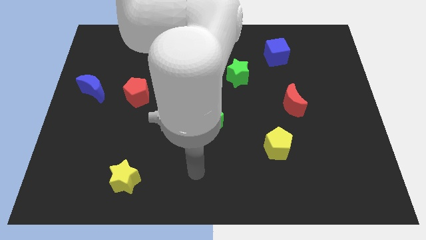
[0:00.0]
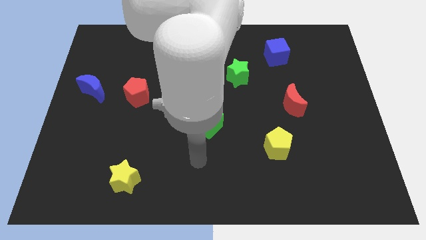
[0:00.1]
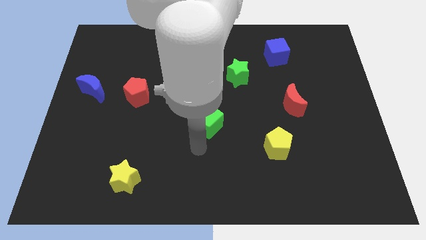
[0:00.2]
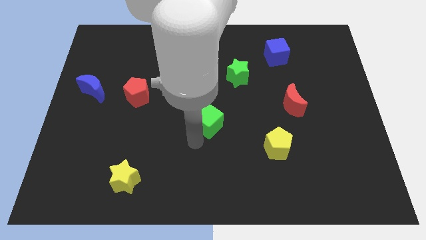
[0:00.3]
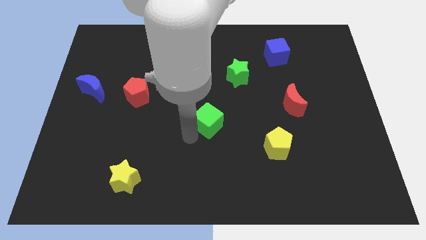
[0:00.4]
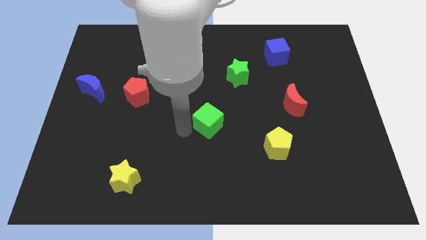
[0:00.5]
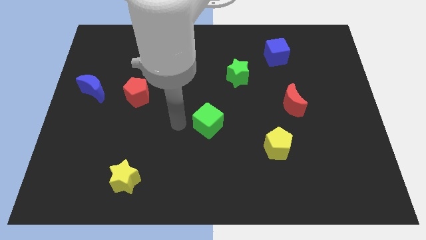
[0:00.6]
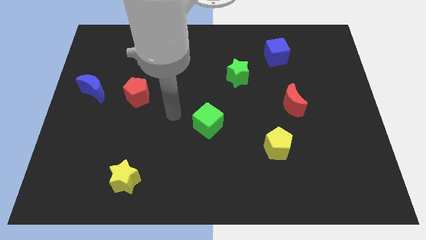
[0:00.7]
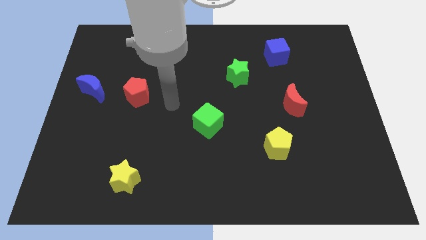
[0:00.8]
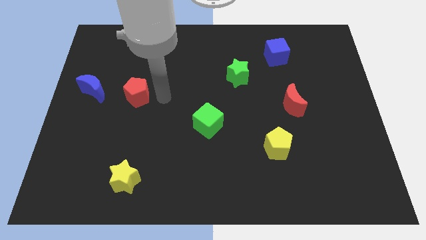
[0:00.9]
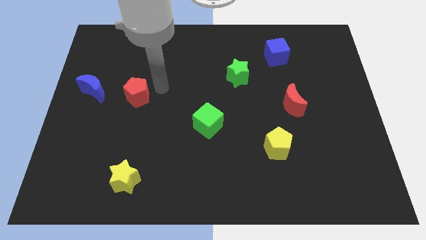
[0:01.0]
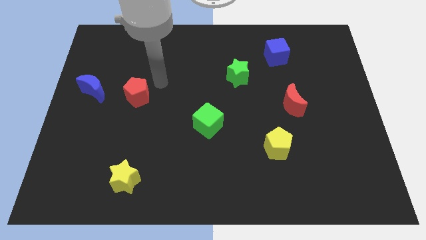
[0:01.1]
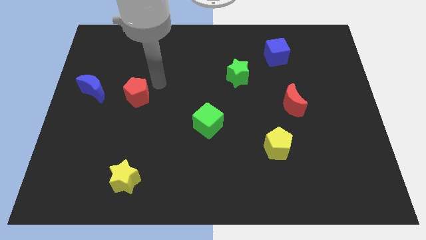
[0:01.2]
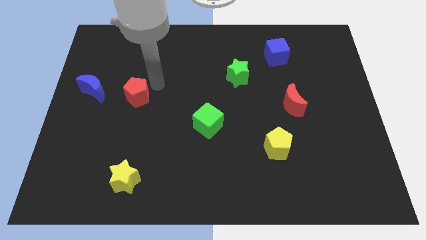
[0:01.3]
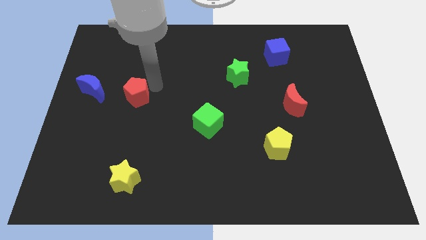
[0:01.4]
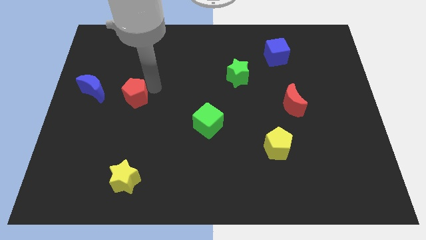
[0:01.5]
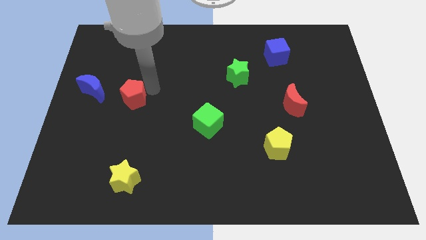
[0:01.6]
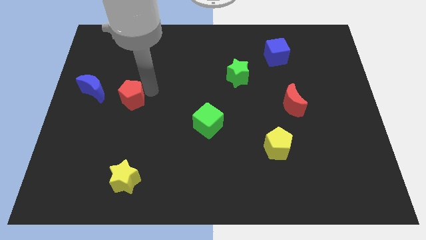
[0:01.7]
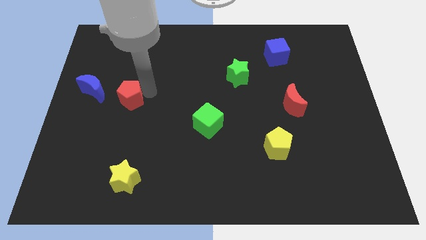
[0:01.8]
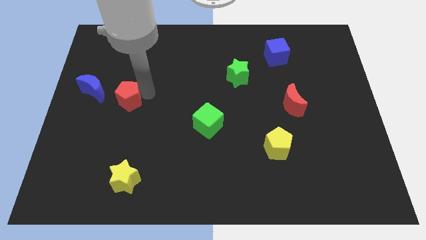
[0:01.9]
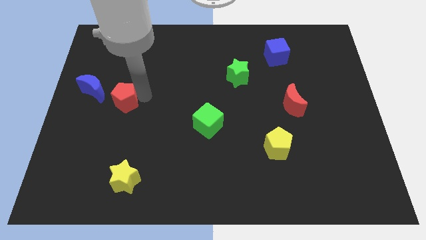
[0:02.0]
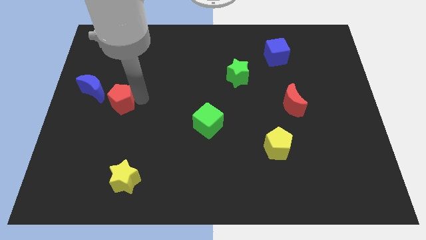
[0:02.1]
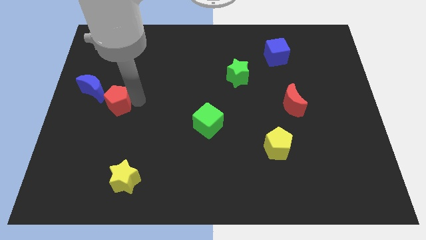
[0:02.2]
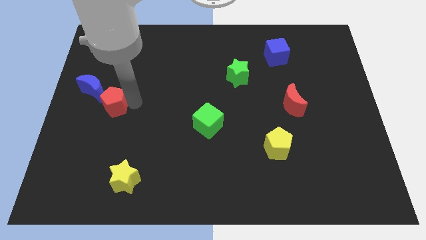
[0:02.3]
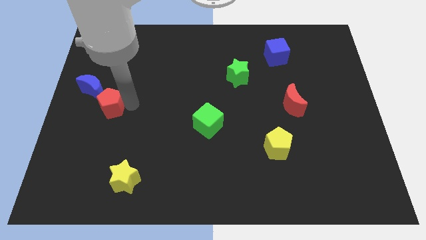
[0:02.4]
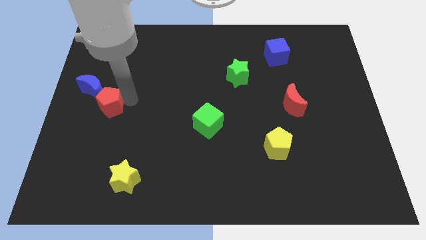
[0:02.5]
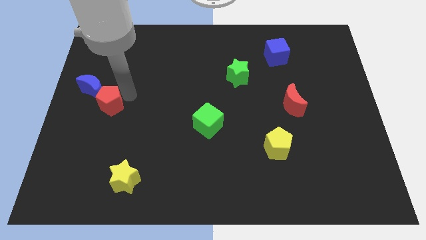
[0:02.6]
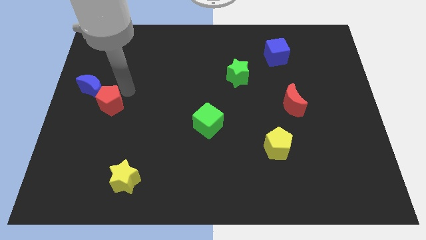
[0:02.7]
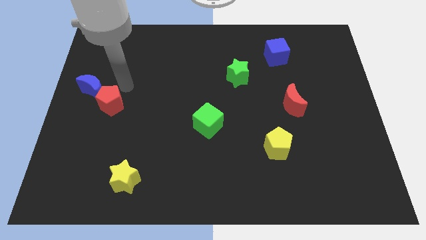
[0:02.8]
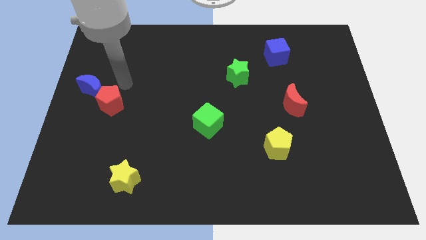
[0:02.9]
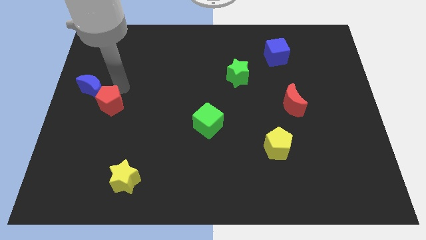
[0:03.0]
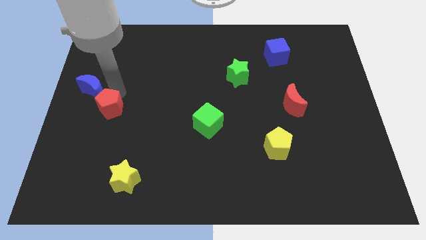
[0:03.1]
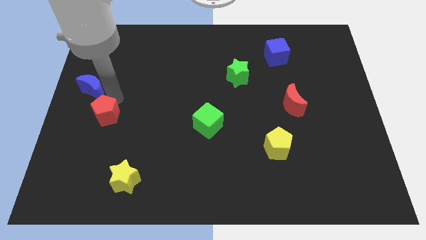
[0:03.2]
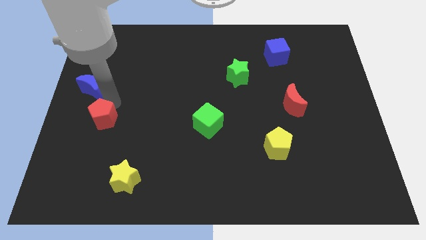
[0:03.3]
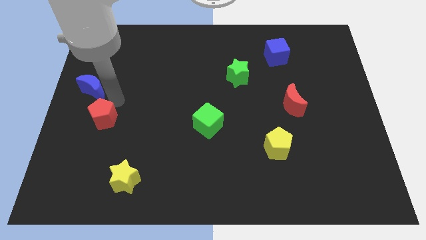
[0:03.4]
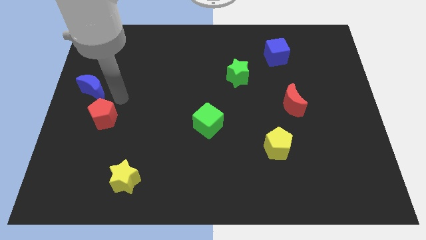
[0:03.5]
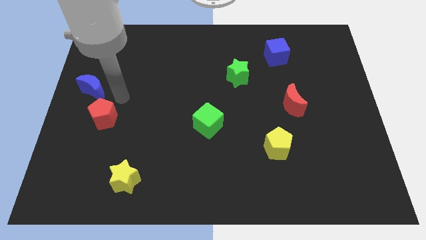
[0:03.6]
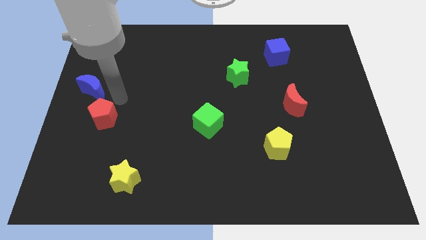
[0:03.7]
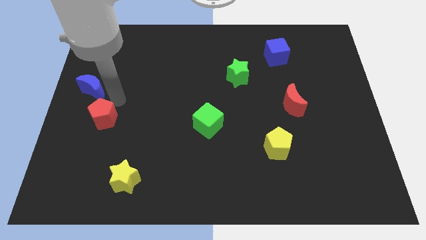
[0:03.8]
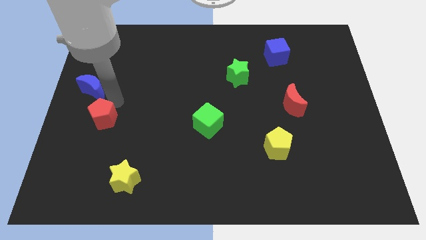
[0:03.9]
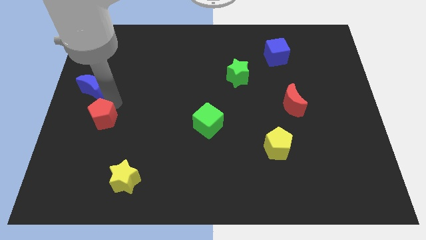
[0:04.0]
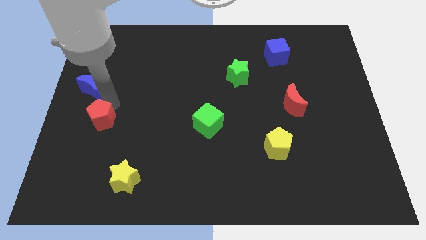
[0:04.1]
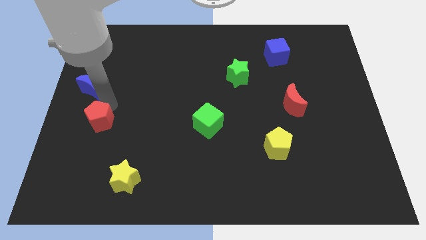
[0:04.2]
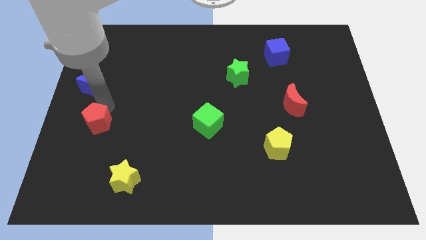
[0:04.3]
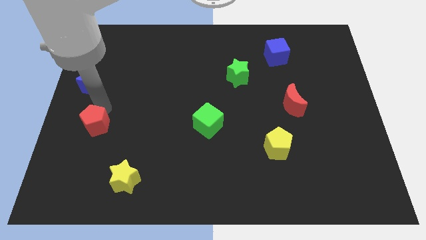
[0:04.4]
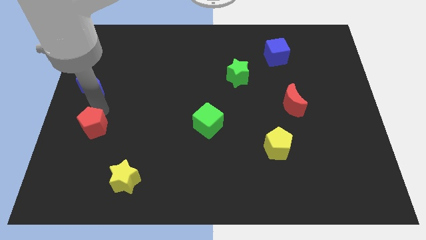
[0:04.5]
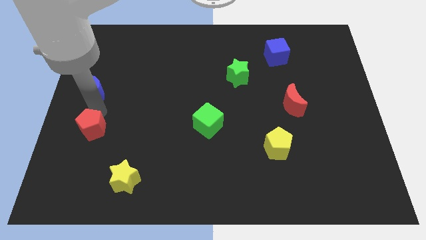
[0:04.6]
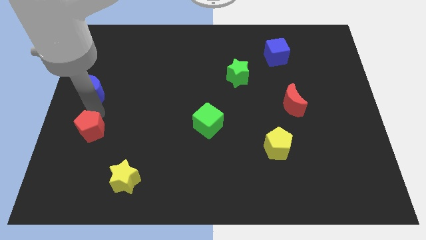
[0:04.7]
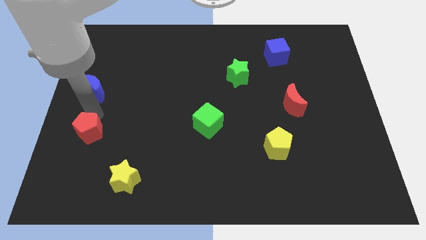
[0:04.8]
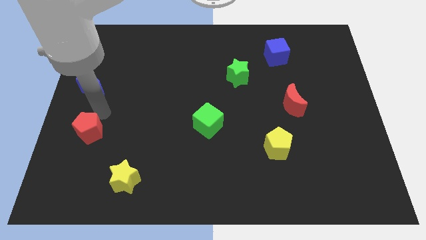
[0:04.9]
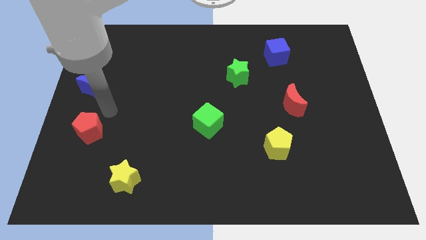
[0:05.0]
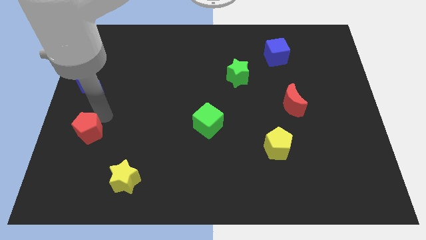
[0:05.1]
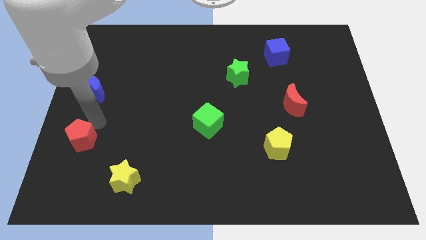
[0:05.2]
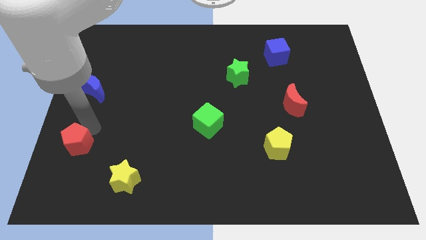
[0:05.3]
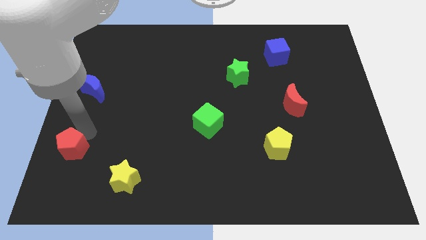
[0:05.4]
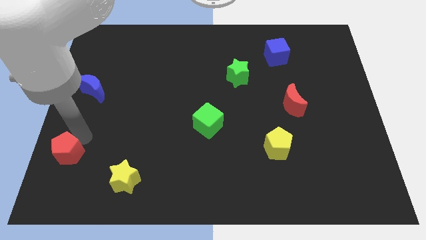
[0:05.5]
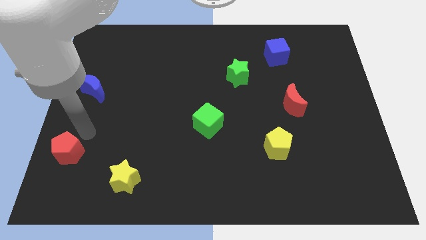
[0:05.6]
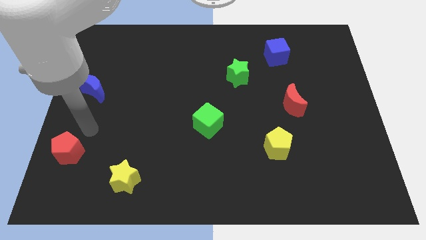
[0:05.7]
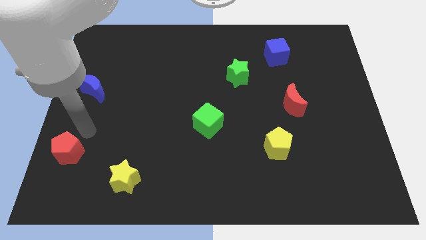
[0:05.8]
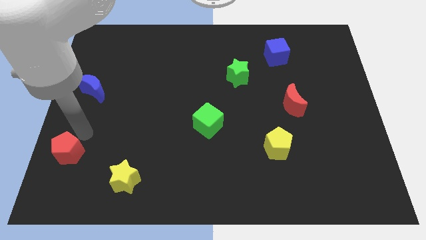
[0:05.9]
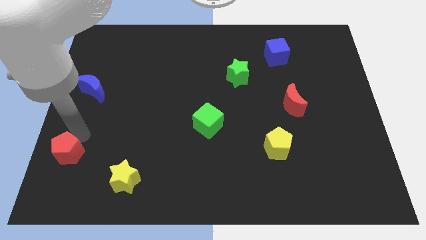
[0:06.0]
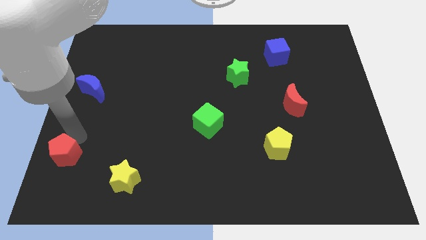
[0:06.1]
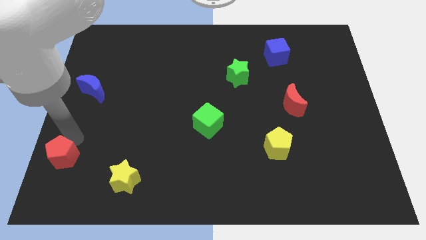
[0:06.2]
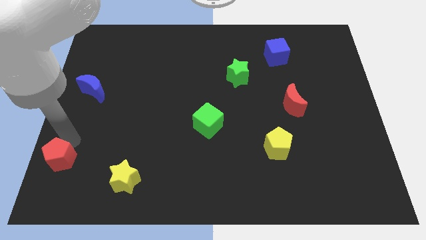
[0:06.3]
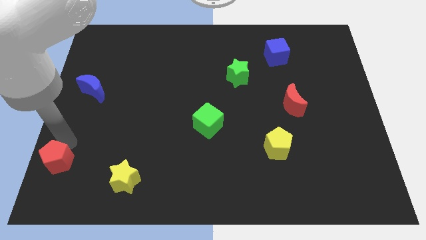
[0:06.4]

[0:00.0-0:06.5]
put the red pentagon to the bottom left corner

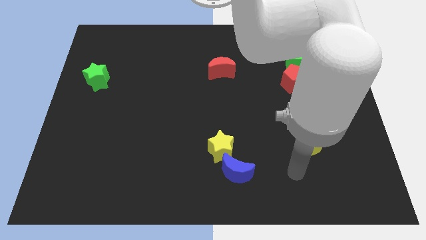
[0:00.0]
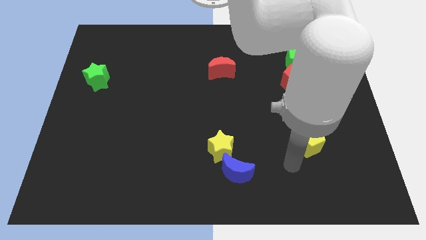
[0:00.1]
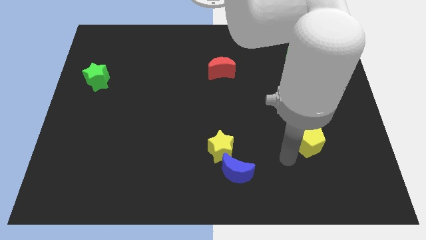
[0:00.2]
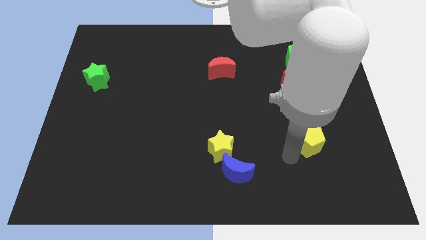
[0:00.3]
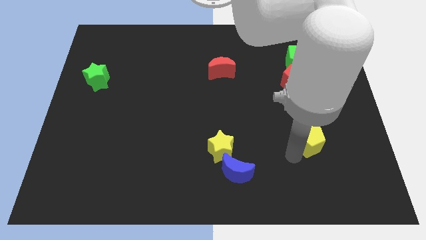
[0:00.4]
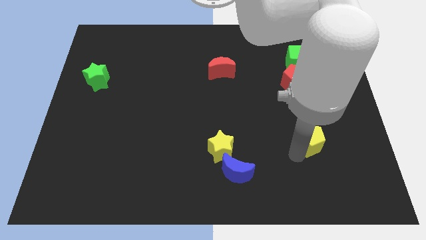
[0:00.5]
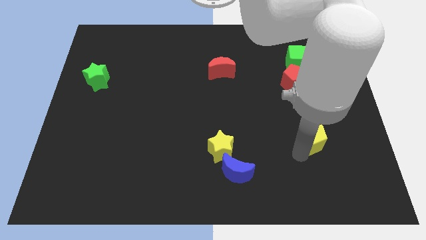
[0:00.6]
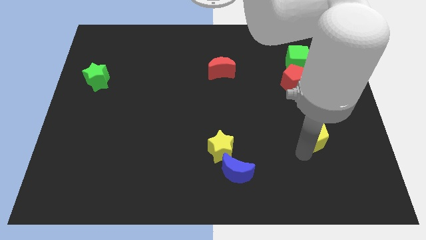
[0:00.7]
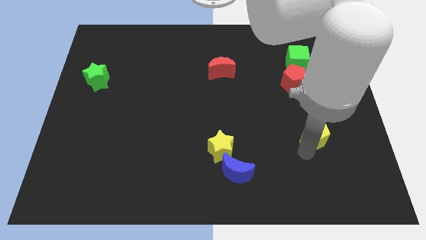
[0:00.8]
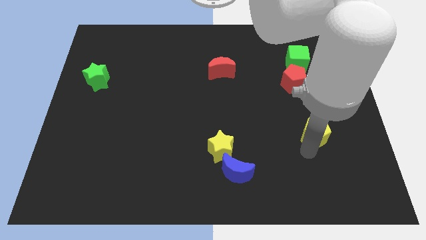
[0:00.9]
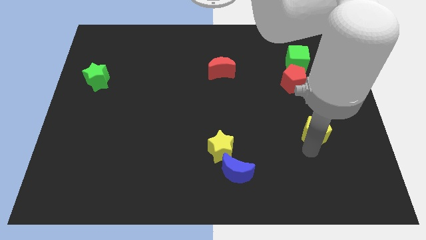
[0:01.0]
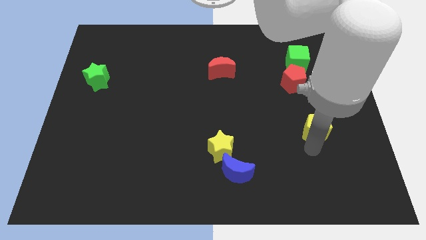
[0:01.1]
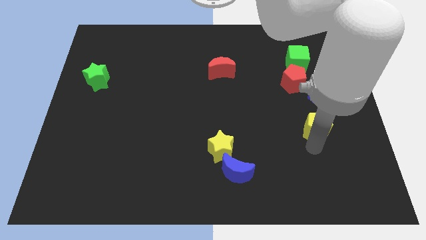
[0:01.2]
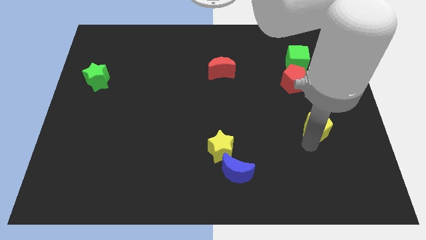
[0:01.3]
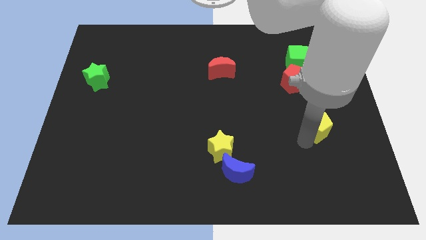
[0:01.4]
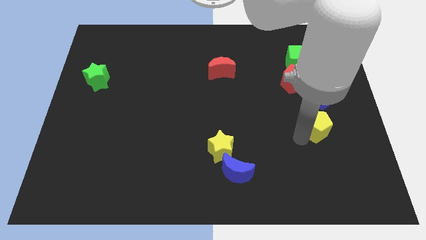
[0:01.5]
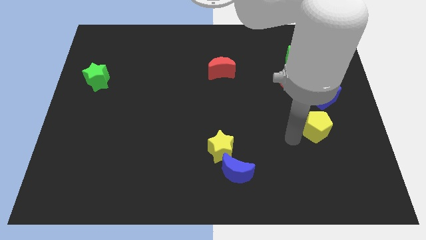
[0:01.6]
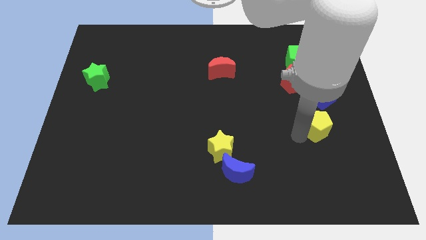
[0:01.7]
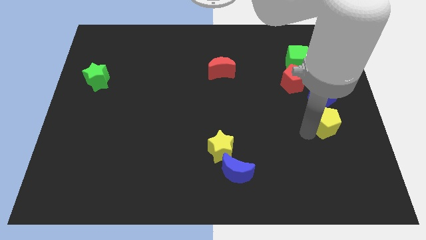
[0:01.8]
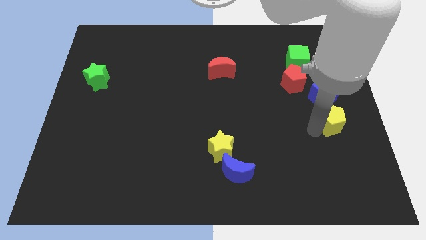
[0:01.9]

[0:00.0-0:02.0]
slide the yellow pentagon to the center right
